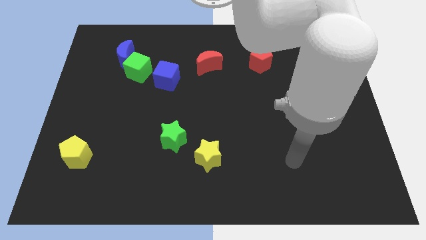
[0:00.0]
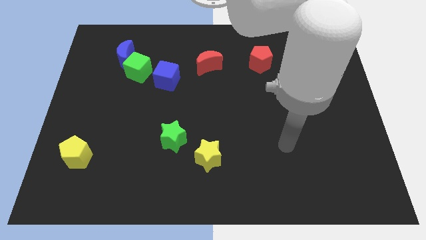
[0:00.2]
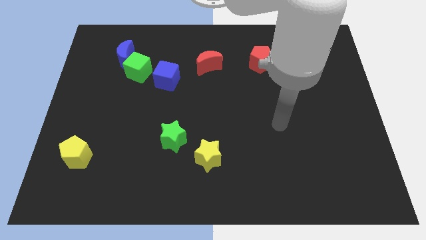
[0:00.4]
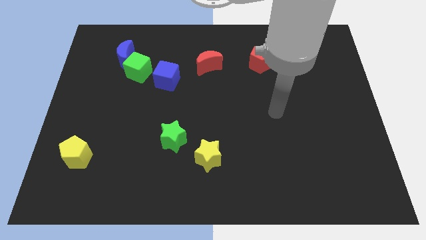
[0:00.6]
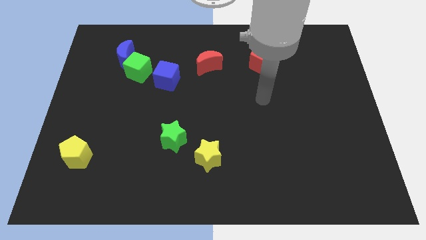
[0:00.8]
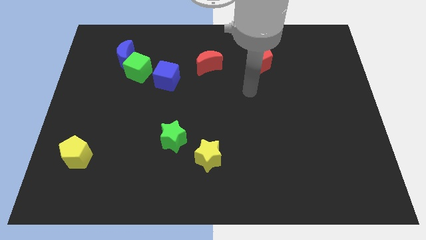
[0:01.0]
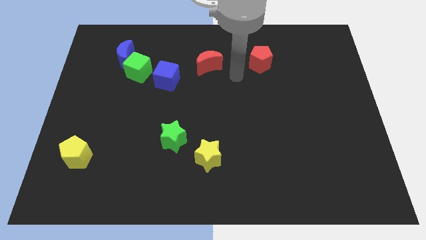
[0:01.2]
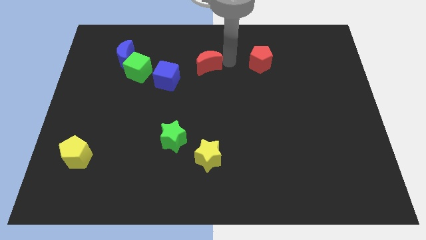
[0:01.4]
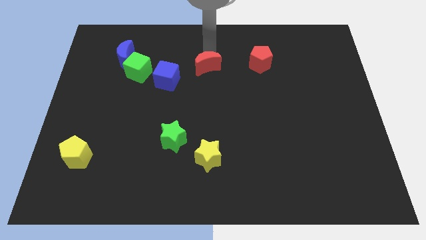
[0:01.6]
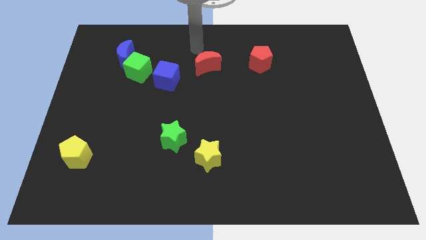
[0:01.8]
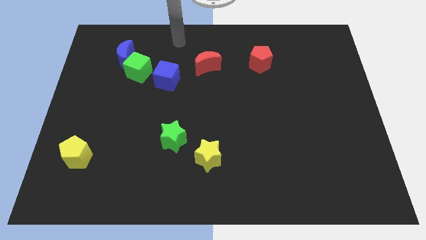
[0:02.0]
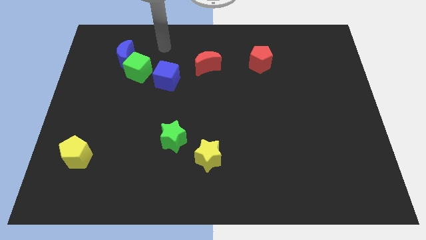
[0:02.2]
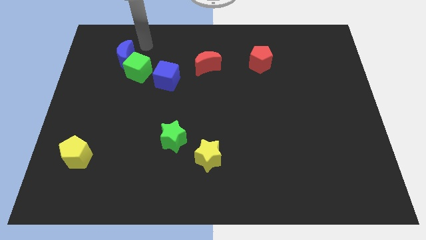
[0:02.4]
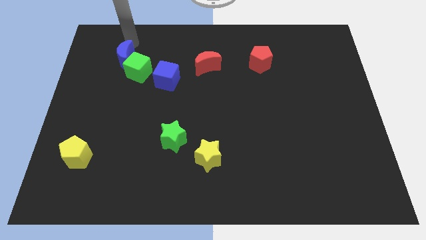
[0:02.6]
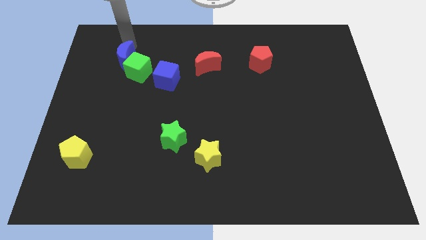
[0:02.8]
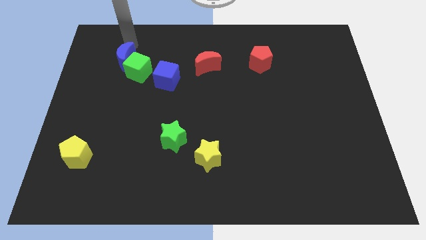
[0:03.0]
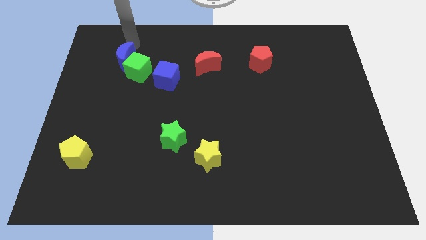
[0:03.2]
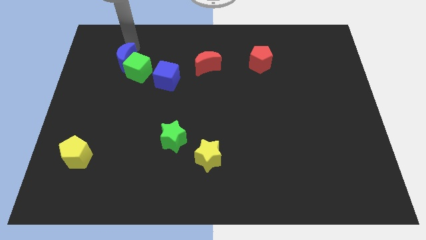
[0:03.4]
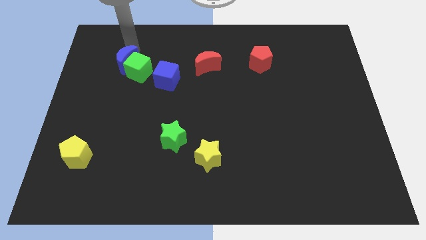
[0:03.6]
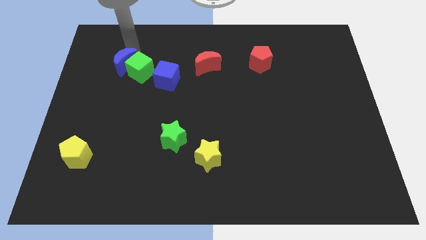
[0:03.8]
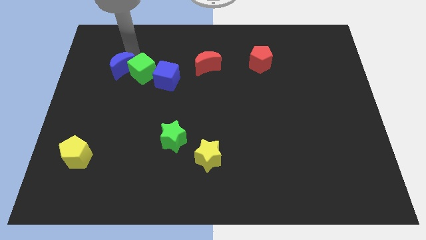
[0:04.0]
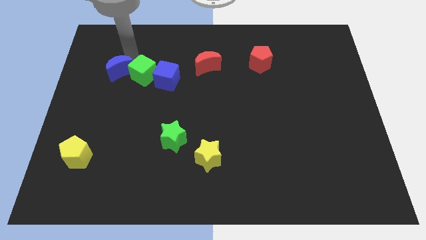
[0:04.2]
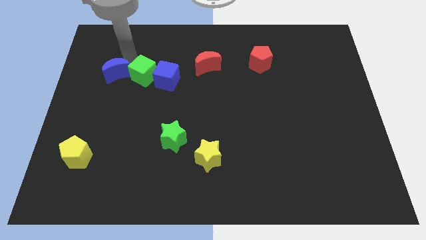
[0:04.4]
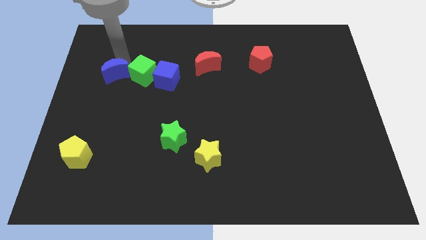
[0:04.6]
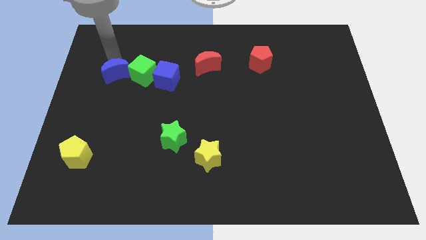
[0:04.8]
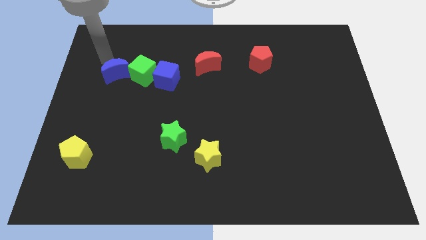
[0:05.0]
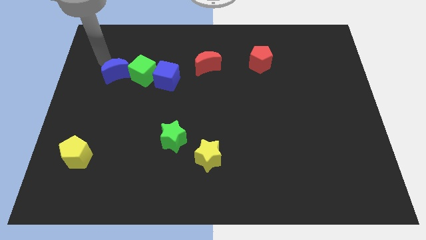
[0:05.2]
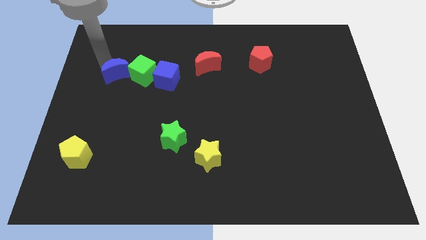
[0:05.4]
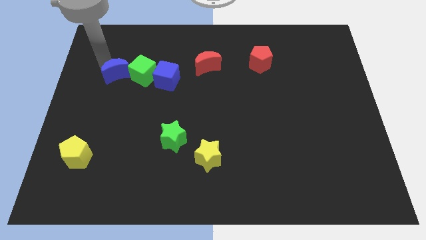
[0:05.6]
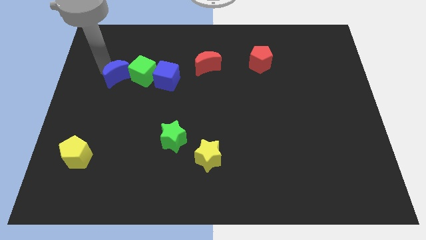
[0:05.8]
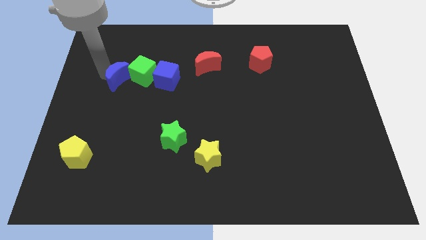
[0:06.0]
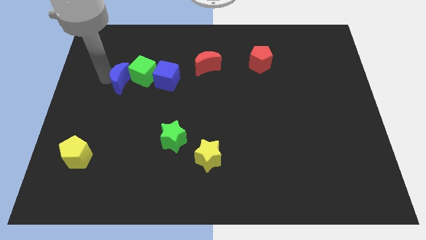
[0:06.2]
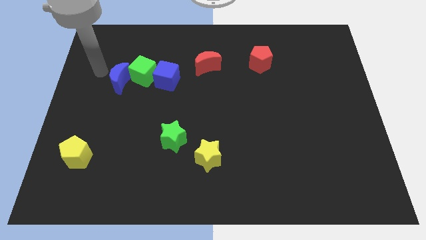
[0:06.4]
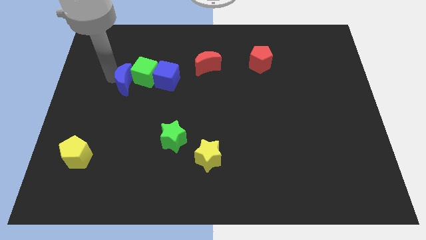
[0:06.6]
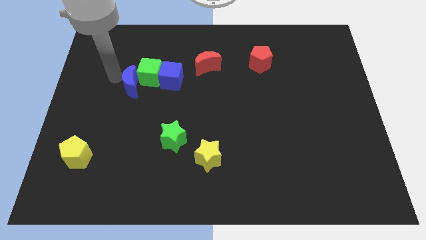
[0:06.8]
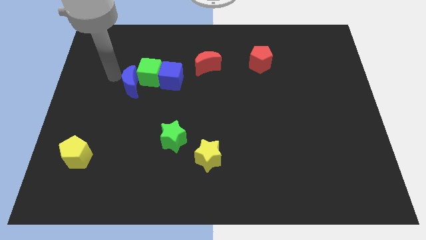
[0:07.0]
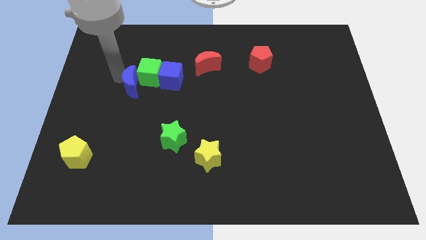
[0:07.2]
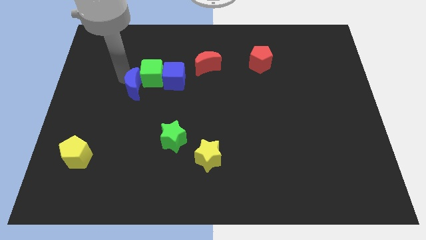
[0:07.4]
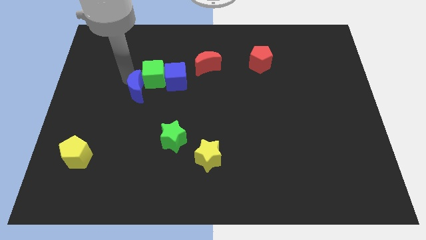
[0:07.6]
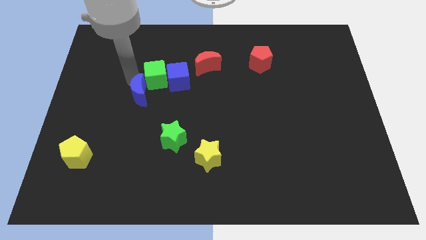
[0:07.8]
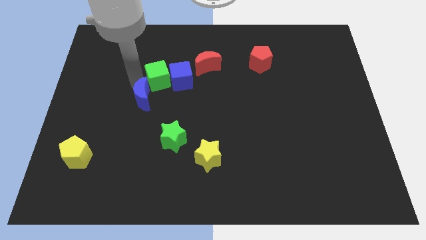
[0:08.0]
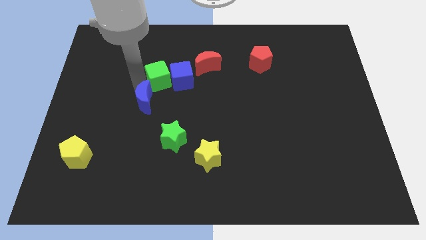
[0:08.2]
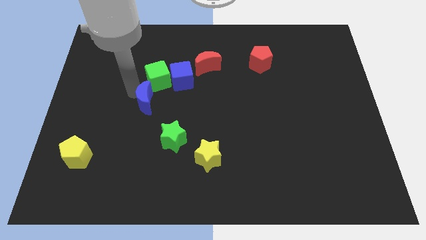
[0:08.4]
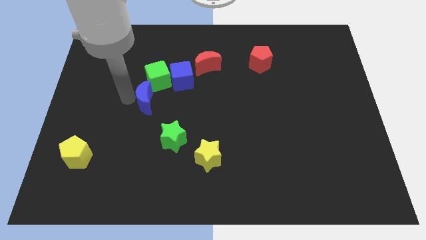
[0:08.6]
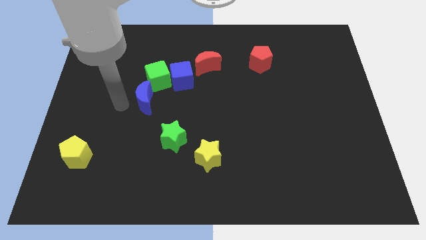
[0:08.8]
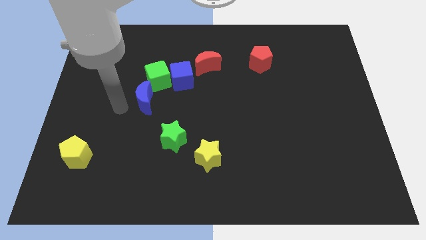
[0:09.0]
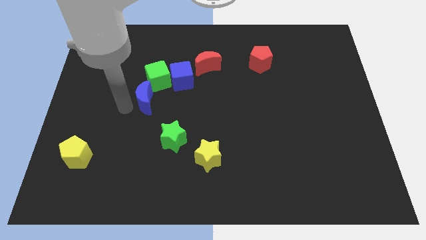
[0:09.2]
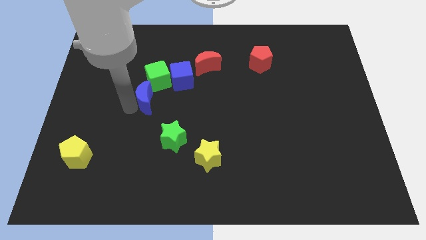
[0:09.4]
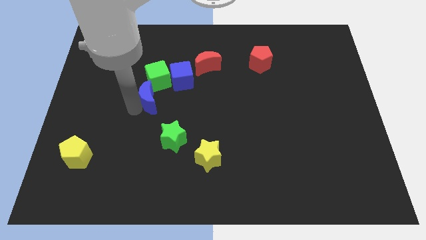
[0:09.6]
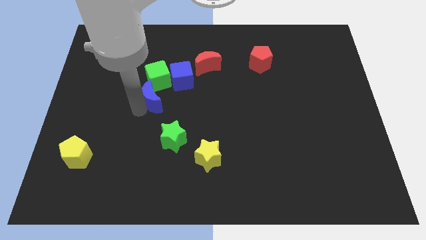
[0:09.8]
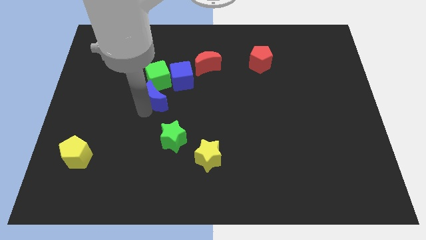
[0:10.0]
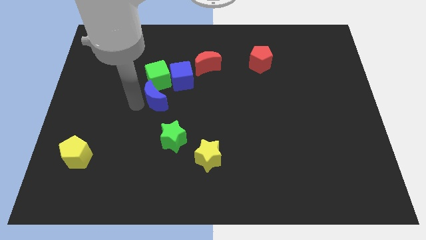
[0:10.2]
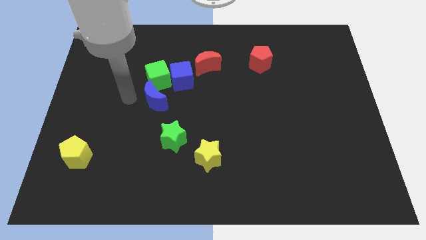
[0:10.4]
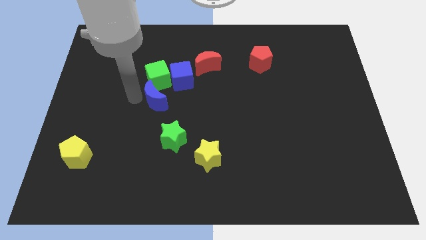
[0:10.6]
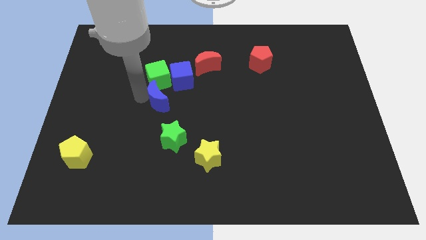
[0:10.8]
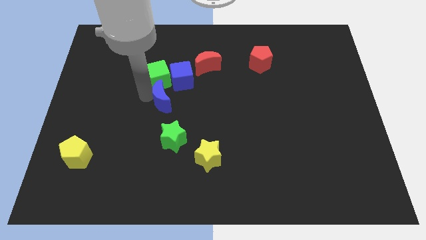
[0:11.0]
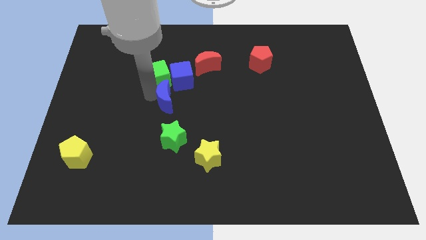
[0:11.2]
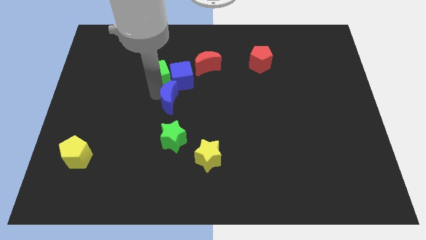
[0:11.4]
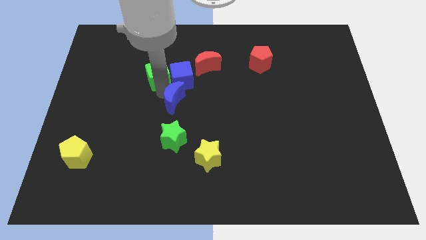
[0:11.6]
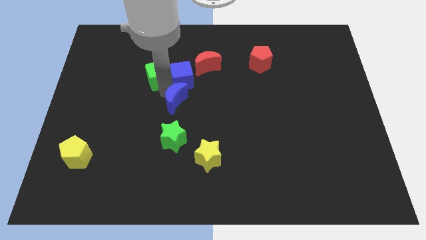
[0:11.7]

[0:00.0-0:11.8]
slide the blue moon diagonally down and to the right

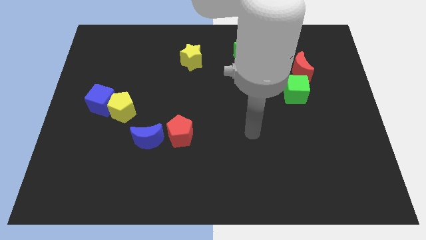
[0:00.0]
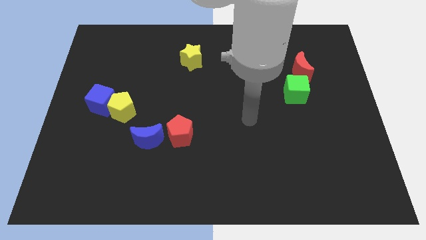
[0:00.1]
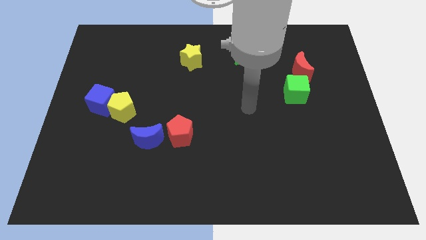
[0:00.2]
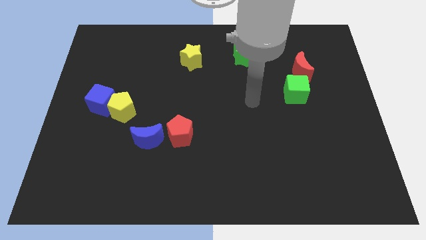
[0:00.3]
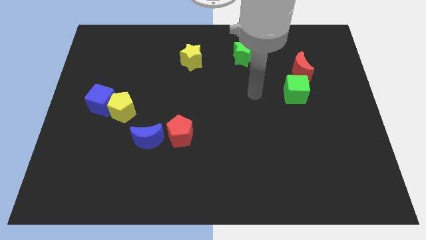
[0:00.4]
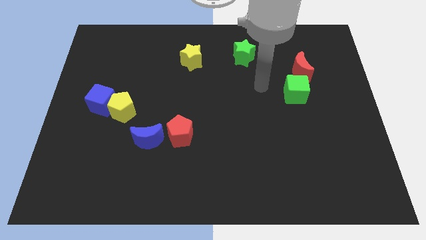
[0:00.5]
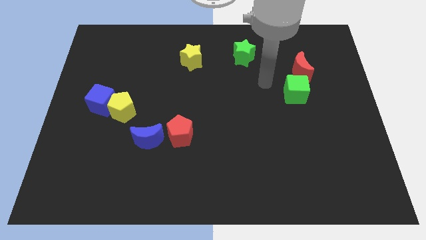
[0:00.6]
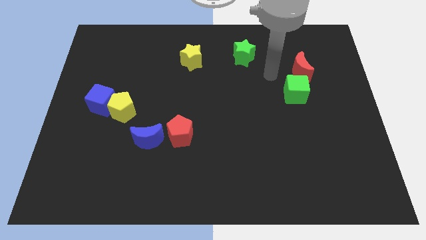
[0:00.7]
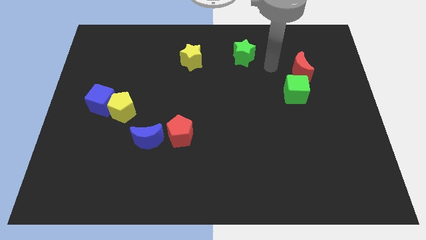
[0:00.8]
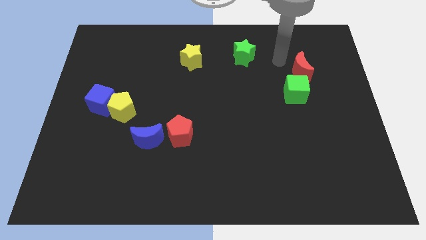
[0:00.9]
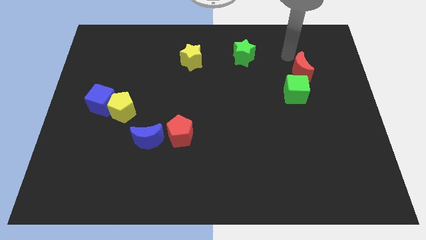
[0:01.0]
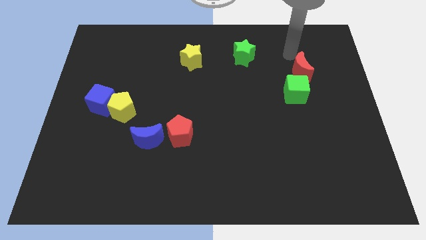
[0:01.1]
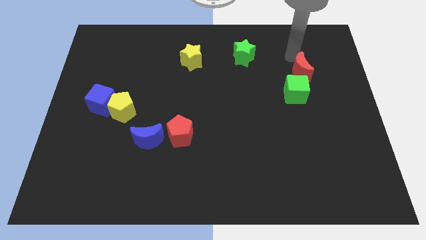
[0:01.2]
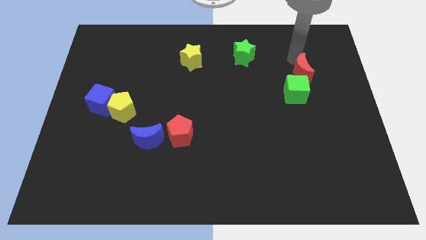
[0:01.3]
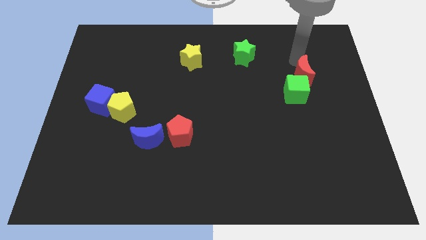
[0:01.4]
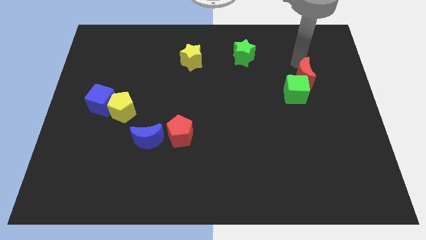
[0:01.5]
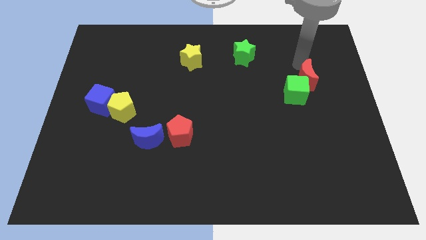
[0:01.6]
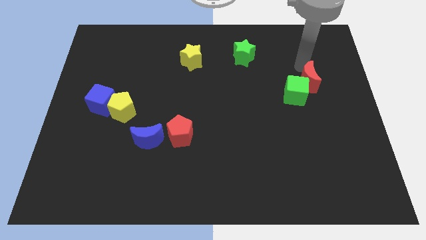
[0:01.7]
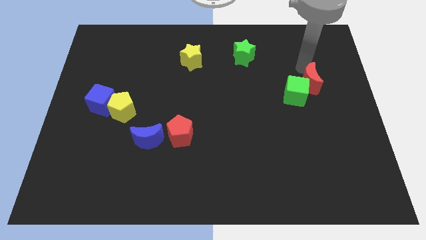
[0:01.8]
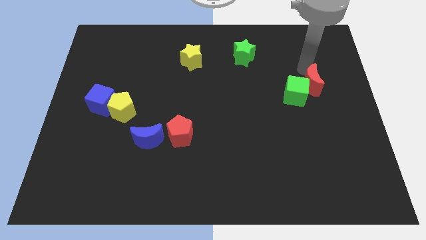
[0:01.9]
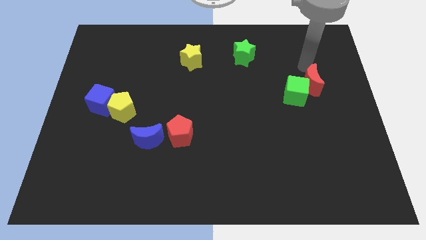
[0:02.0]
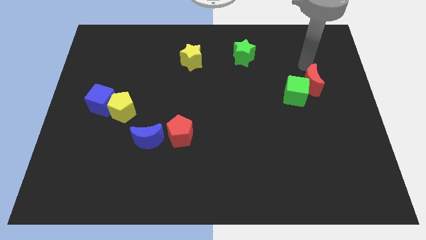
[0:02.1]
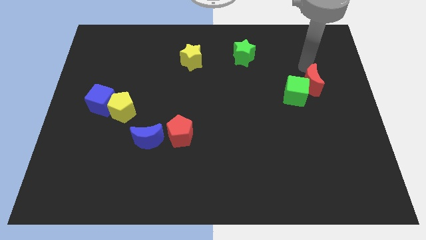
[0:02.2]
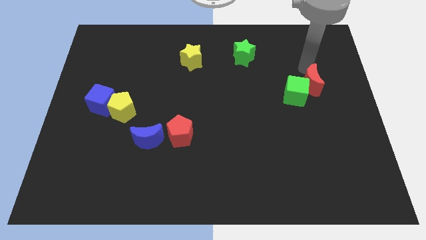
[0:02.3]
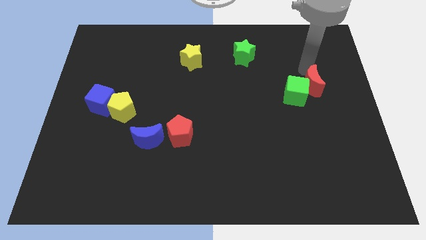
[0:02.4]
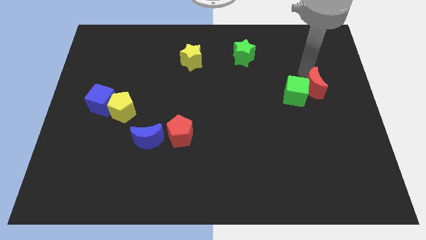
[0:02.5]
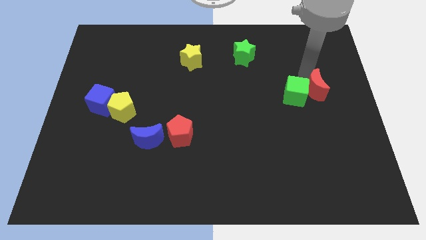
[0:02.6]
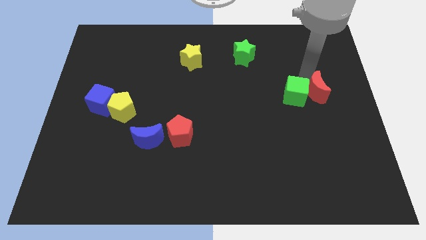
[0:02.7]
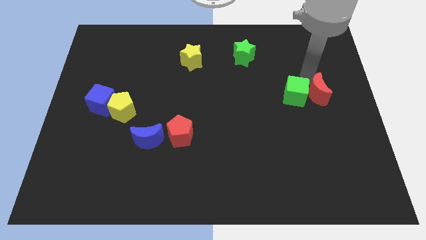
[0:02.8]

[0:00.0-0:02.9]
slide the red moon downwards a little
